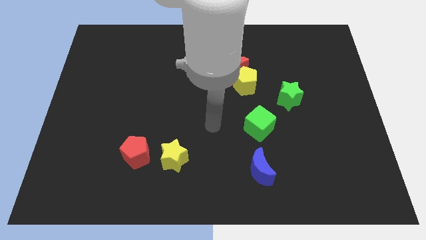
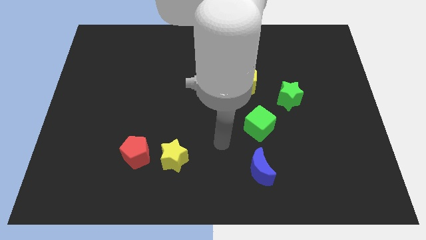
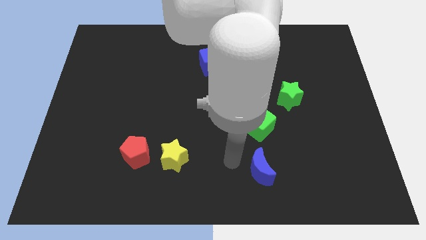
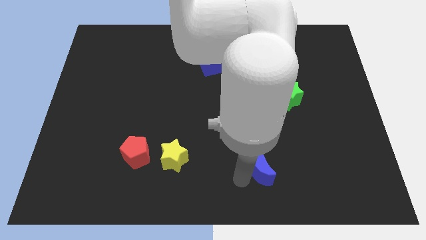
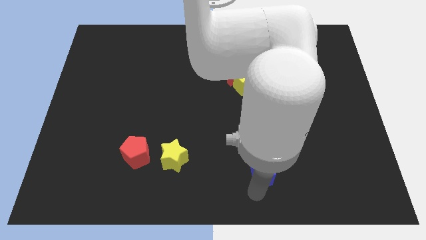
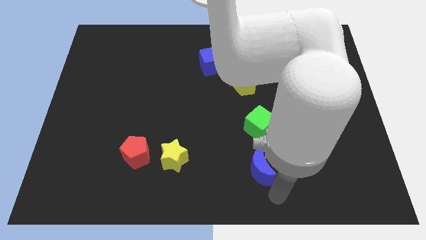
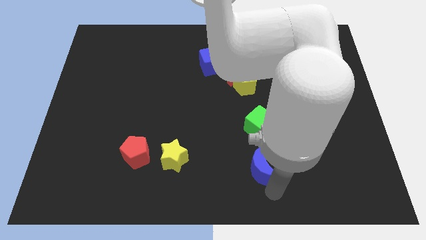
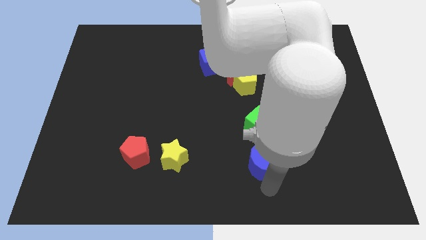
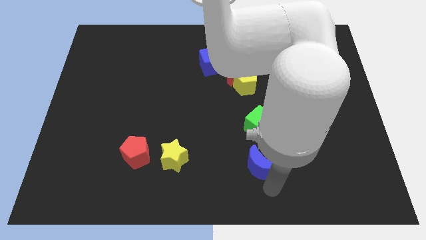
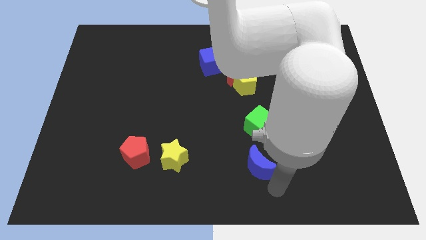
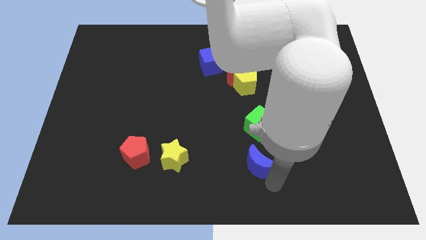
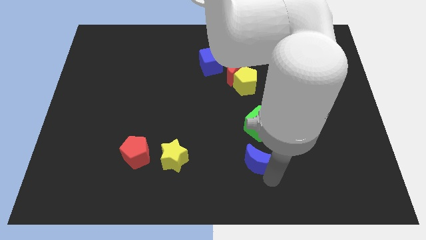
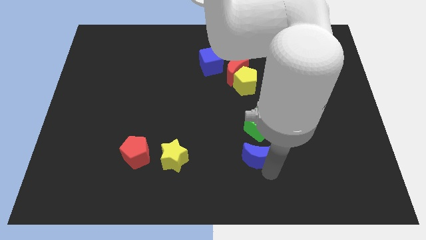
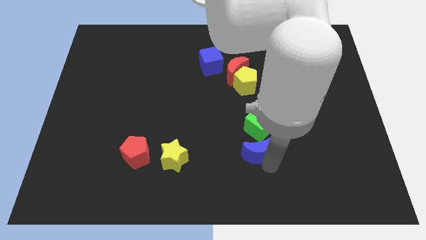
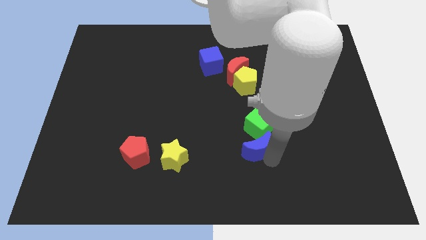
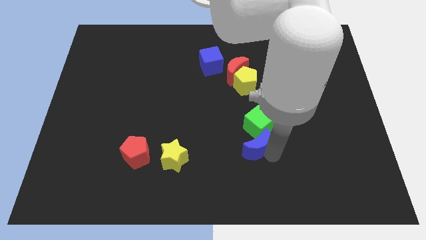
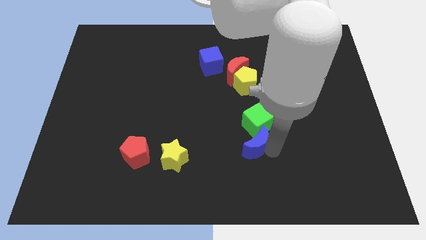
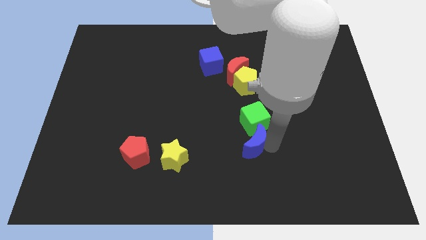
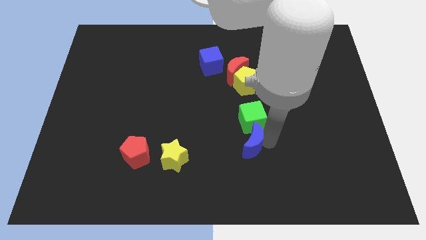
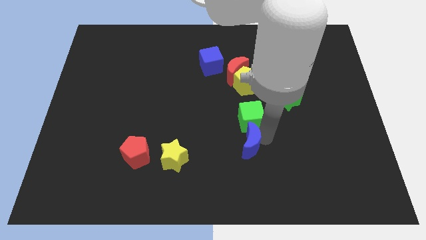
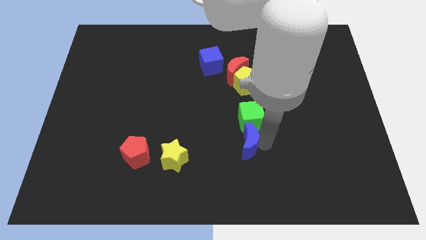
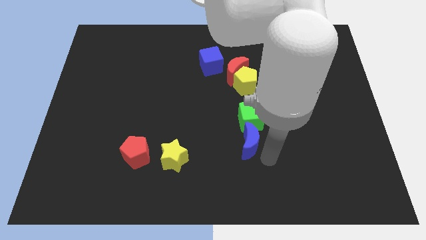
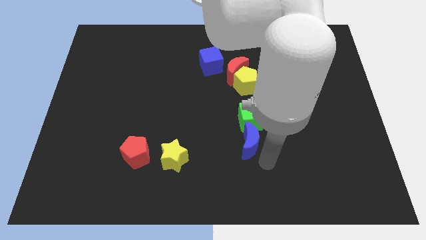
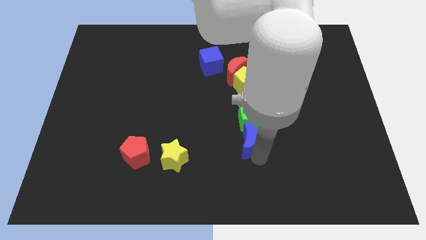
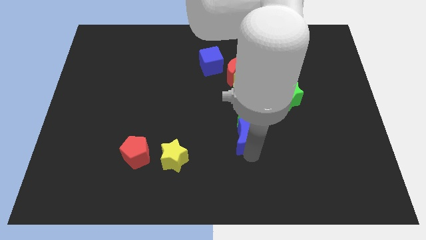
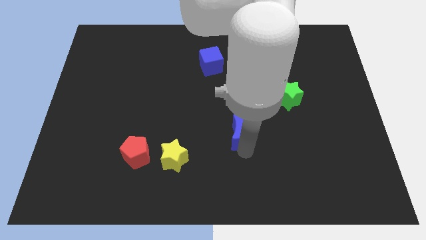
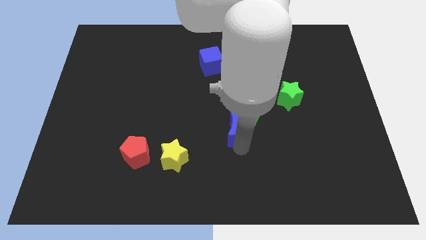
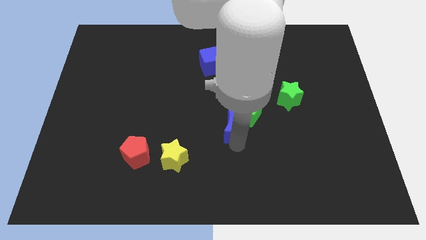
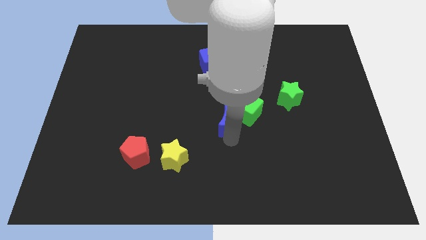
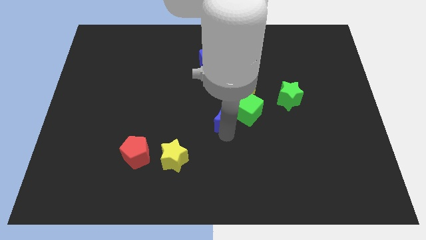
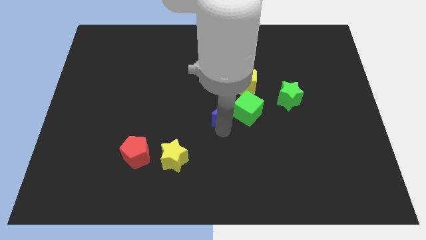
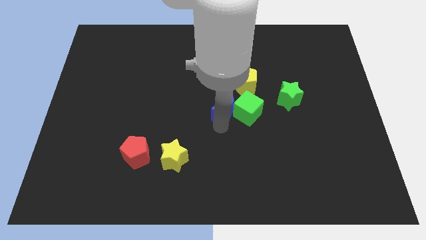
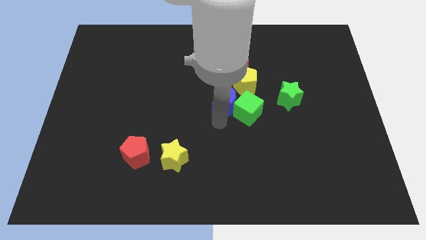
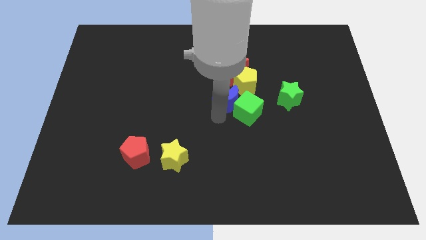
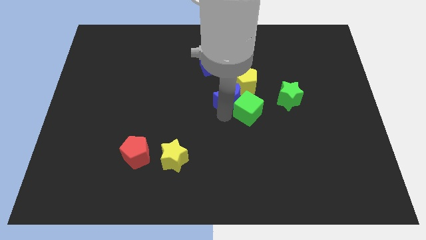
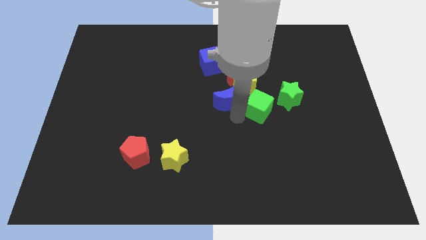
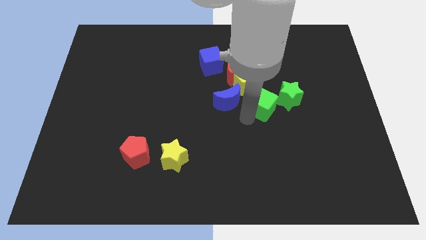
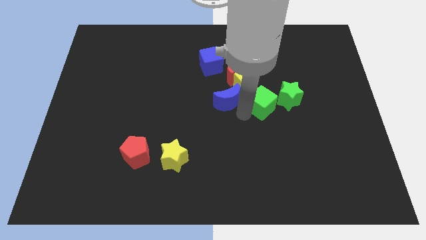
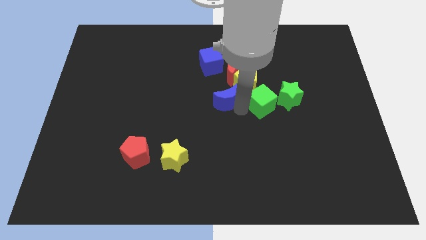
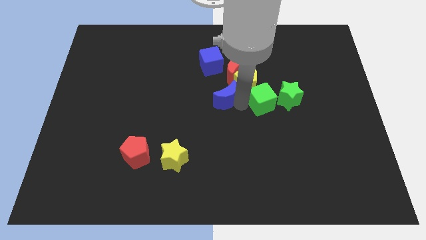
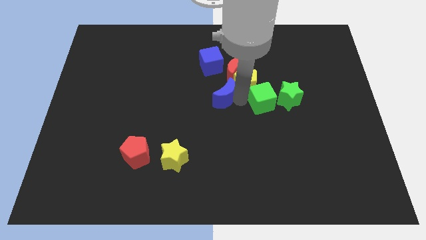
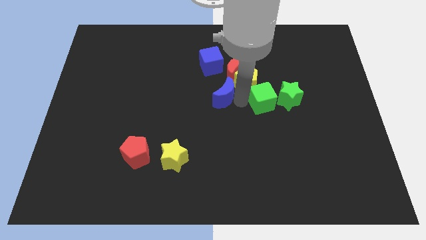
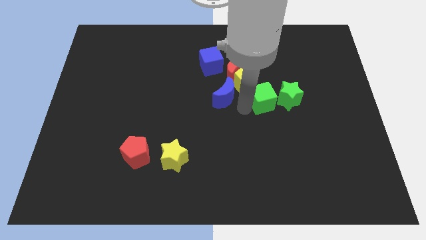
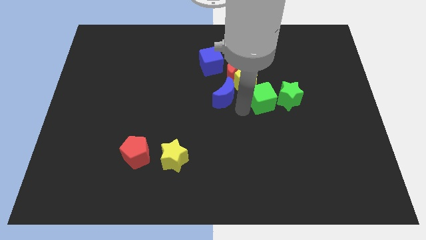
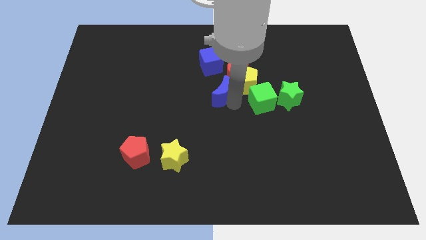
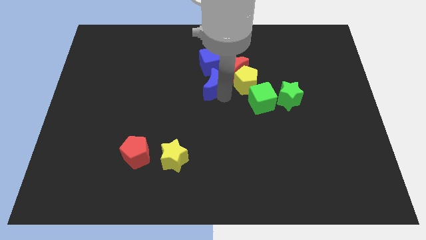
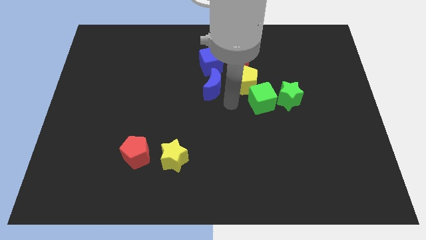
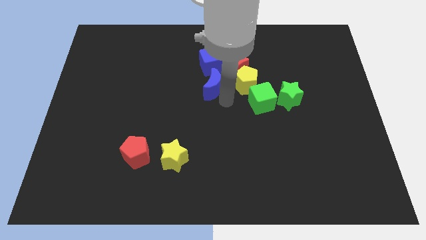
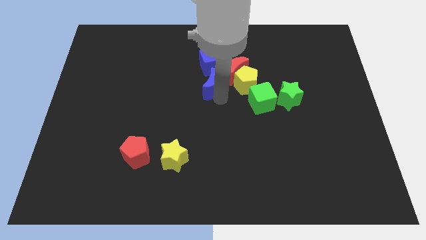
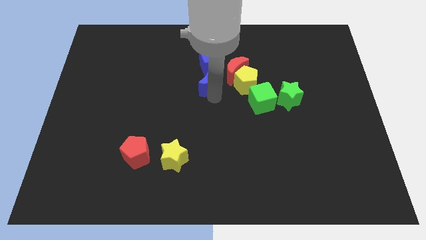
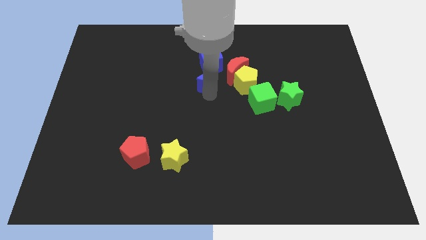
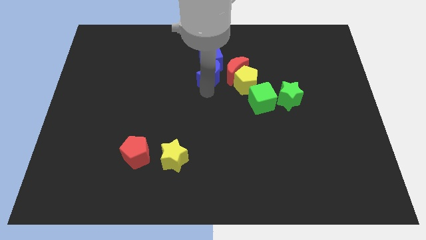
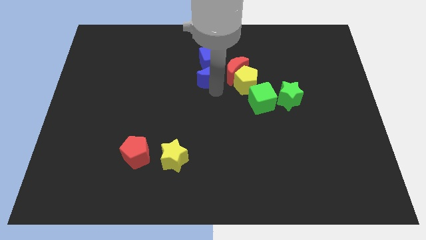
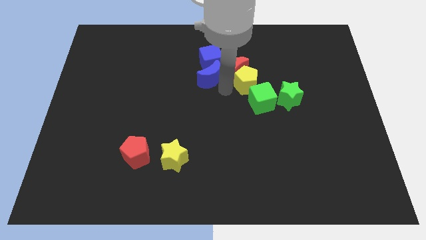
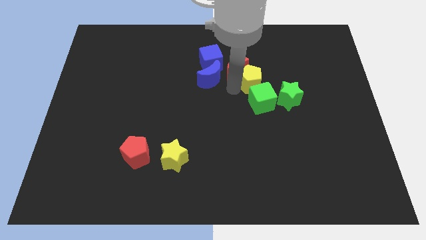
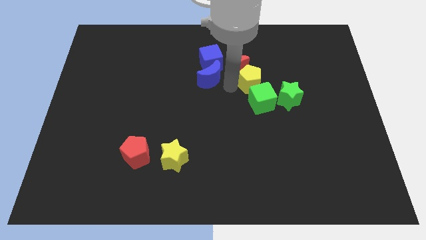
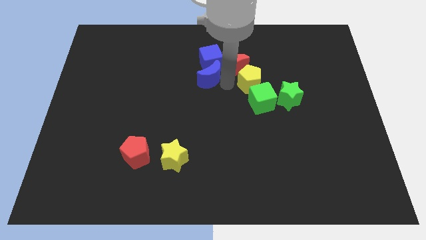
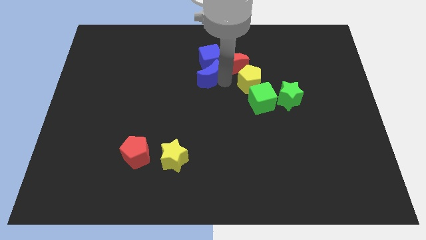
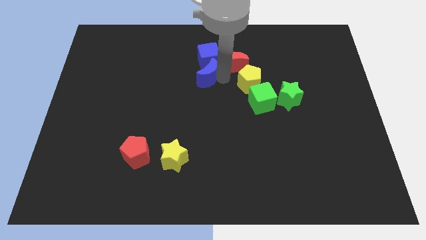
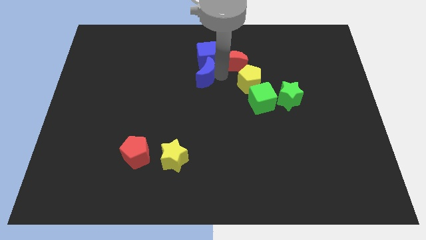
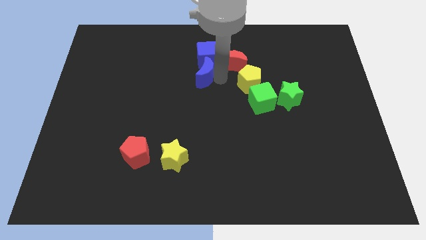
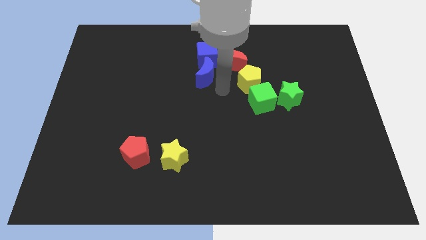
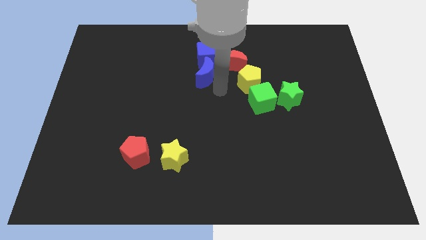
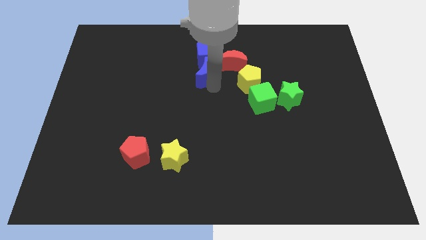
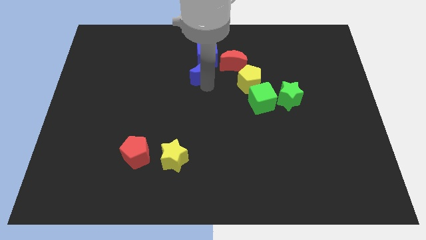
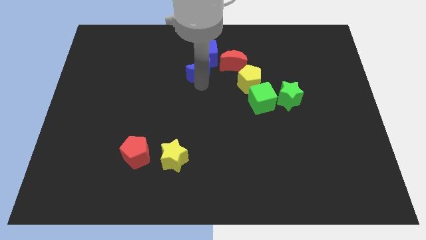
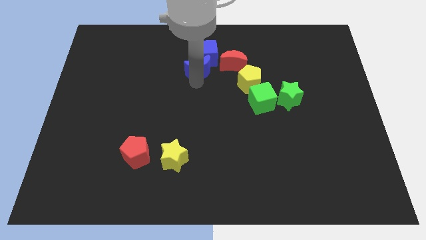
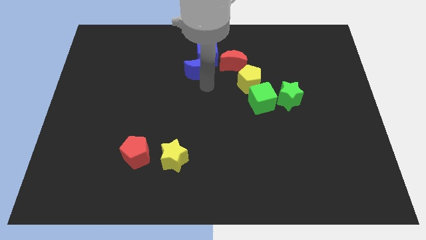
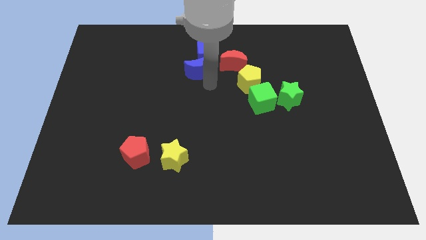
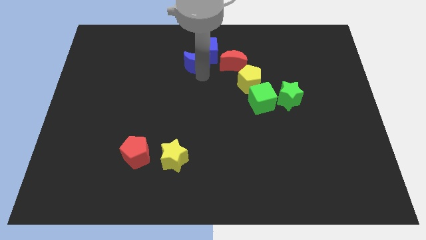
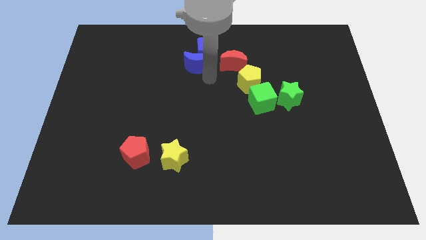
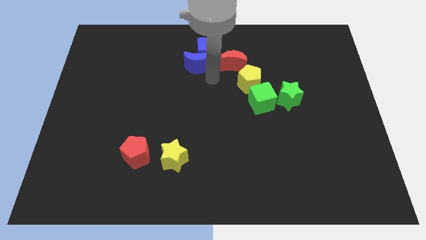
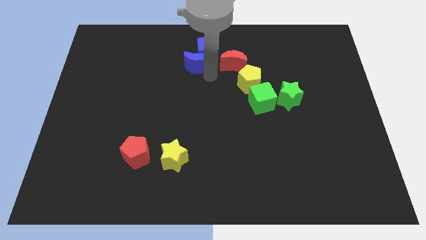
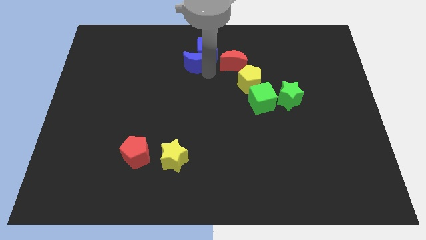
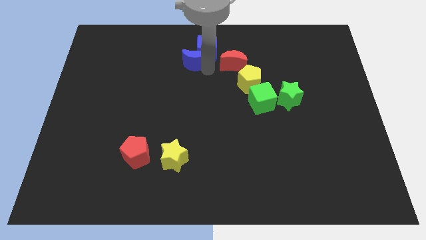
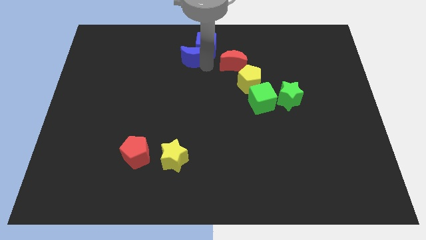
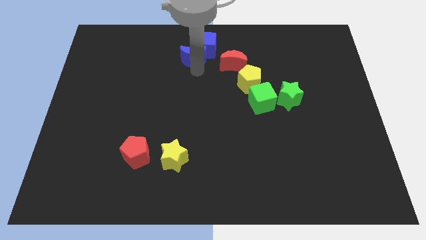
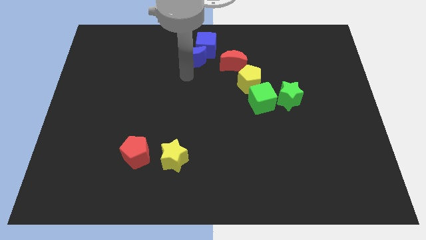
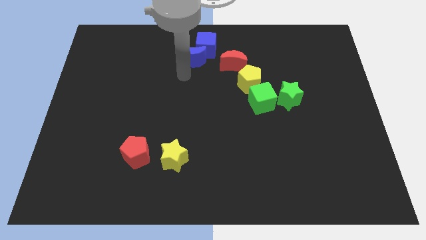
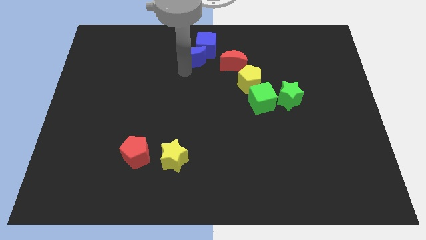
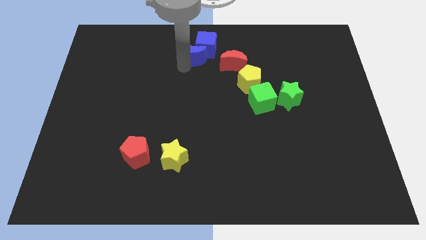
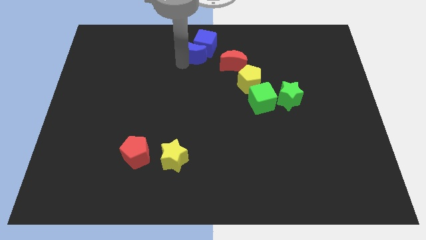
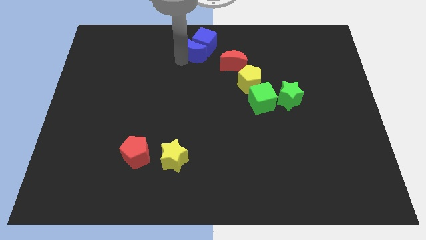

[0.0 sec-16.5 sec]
move the blue moon to the top side
